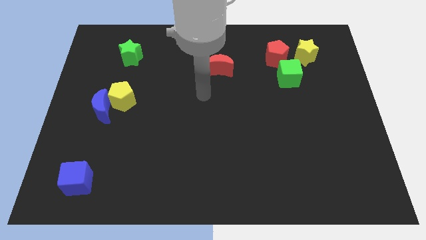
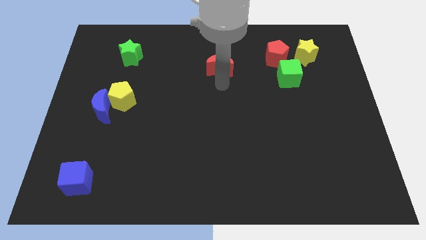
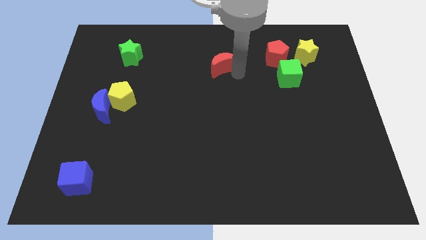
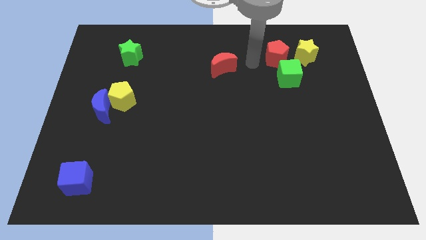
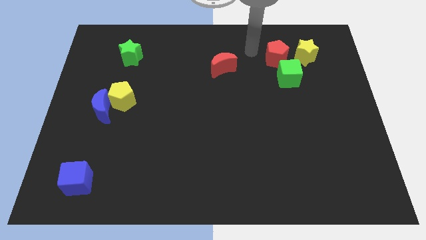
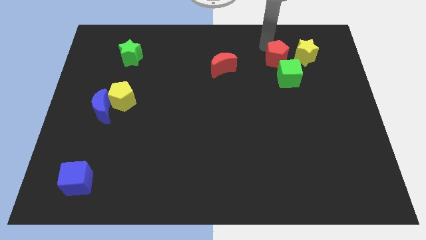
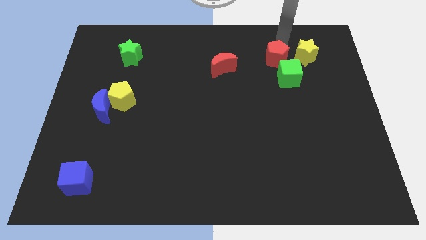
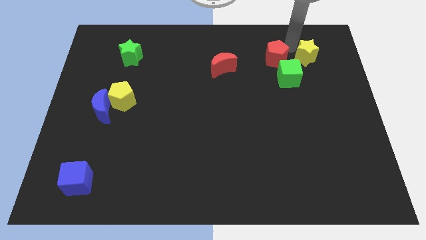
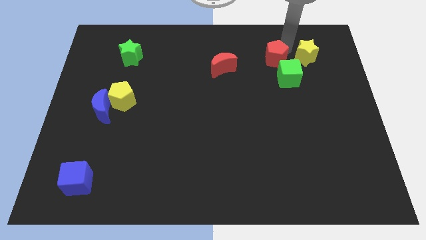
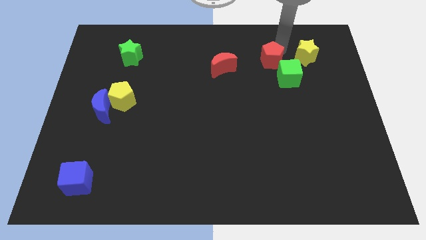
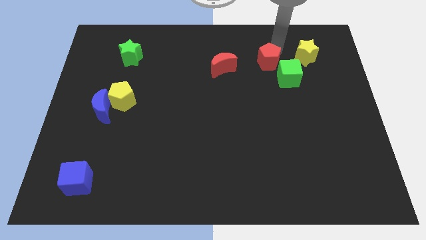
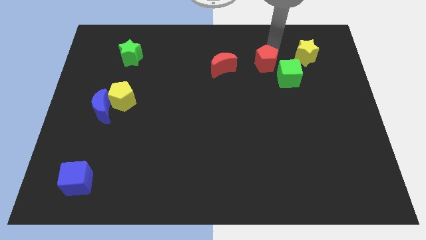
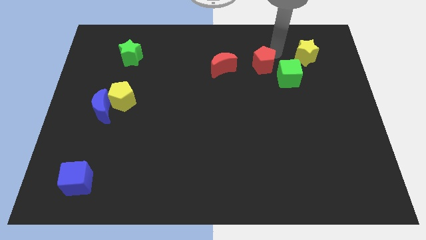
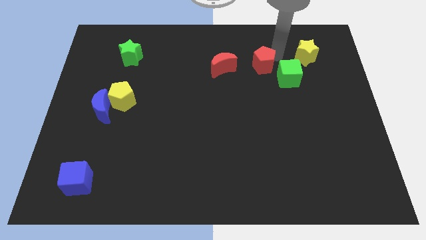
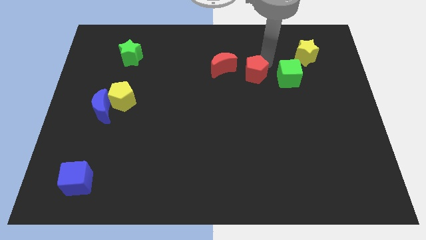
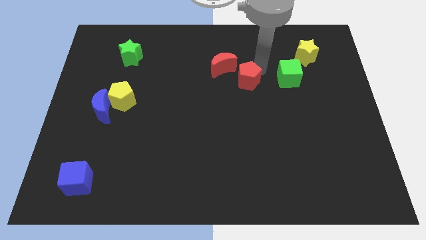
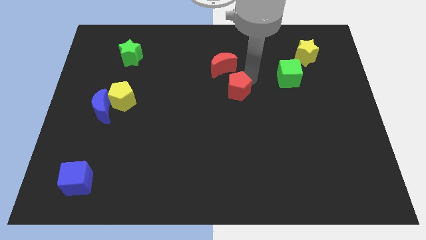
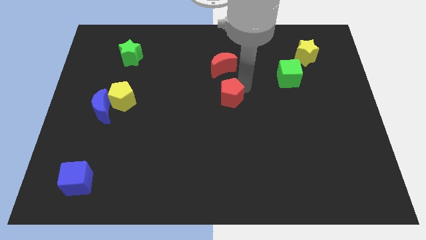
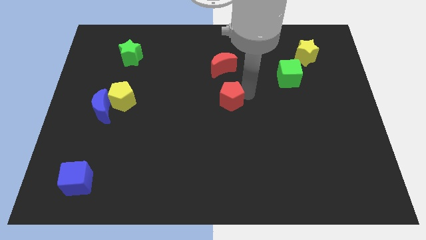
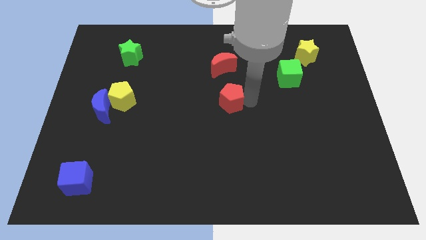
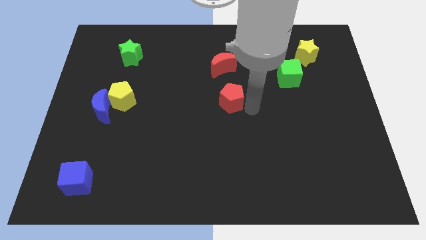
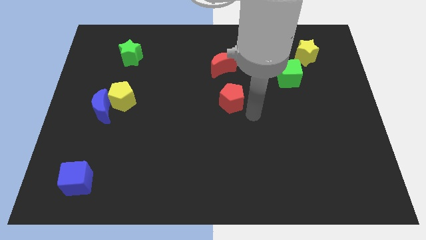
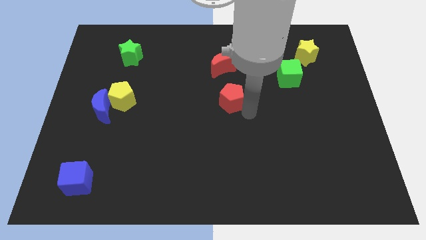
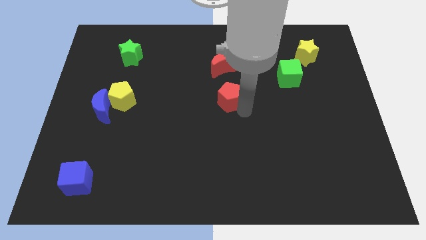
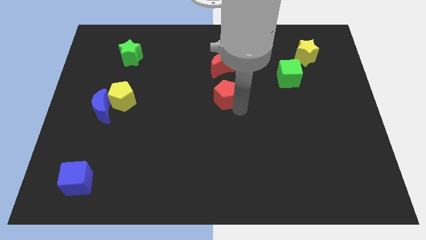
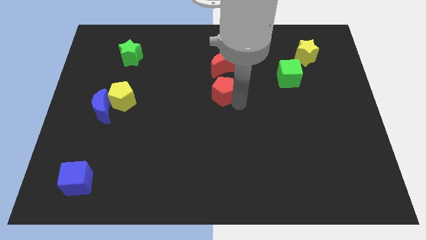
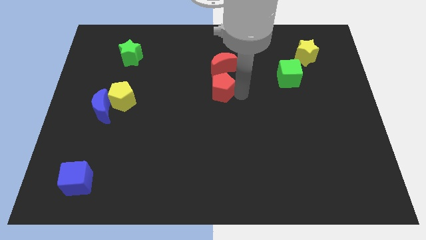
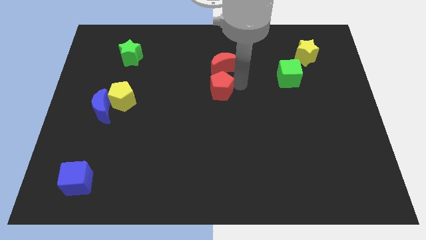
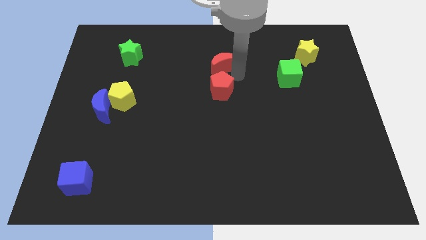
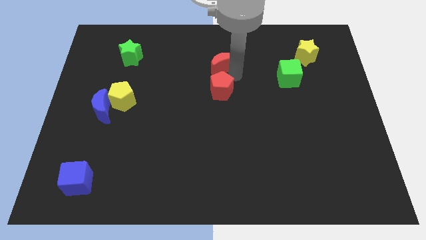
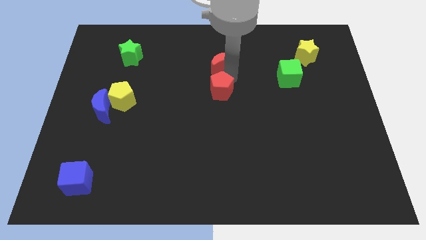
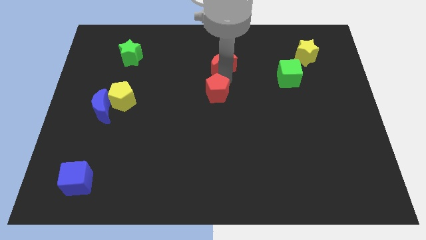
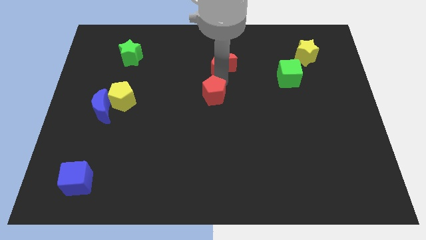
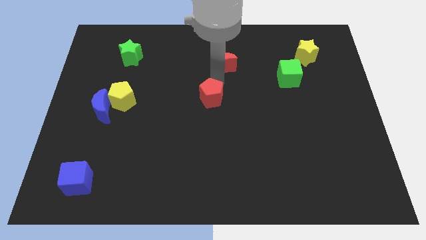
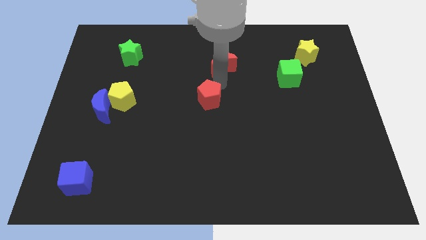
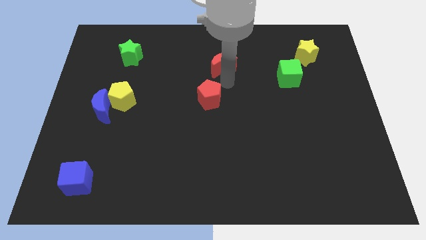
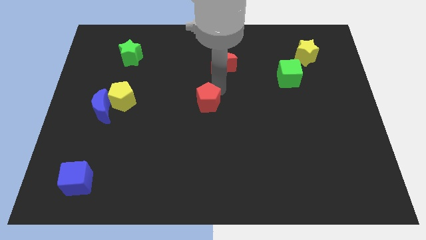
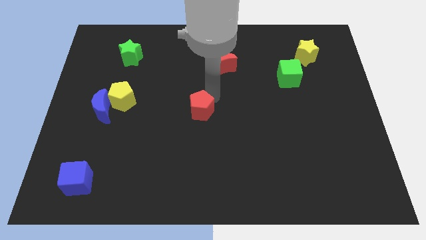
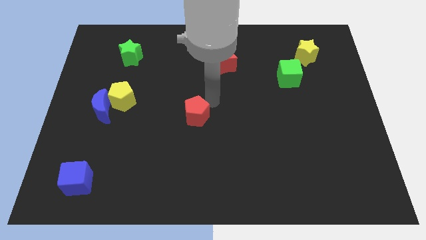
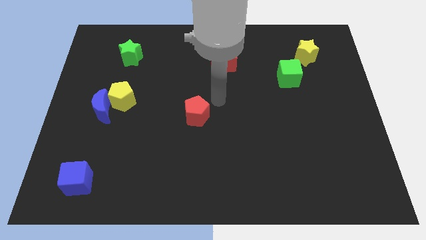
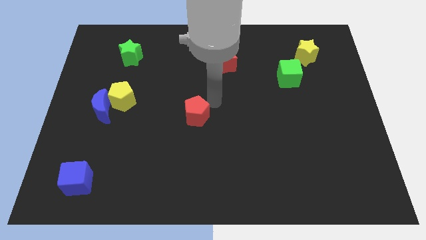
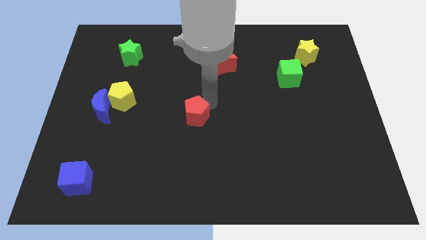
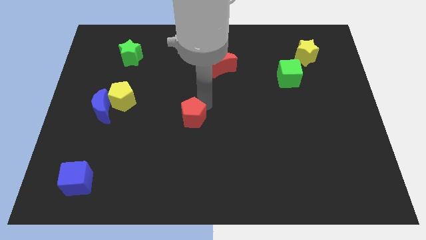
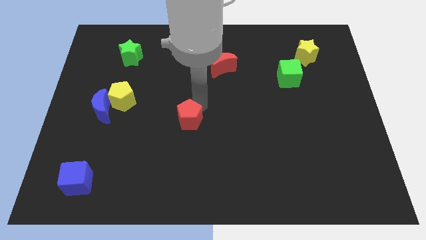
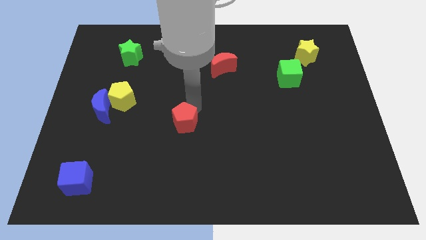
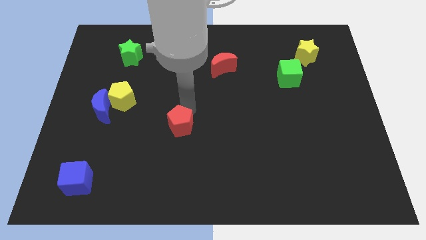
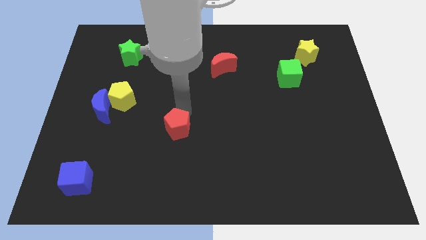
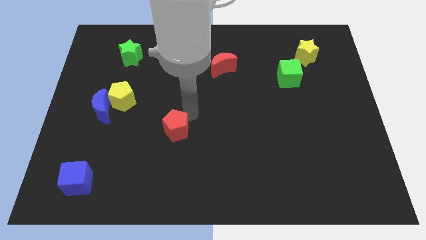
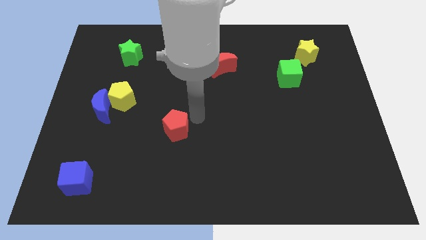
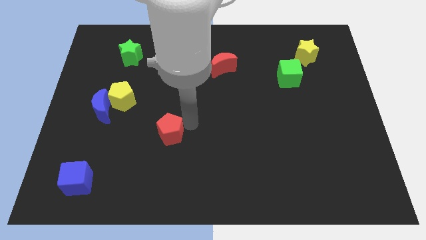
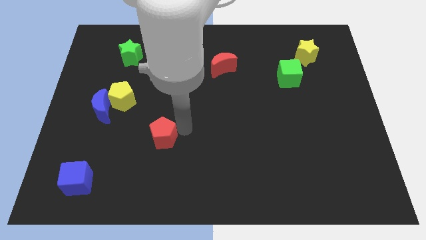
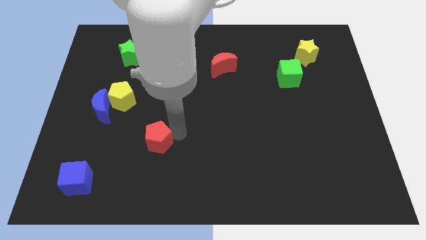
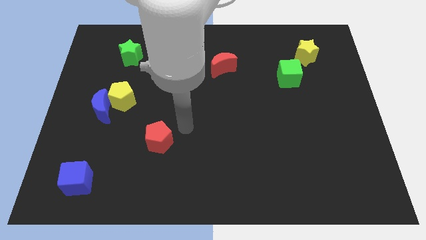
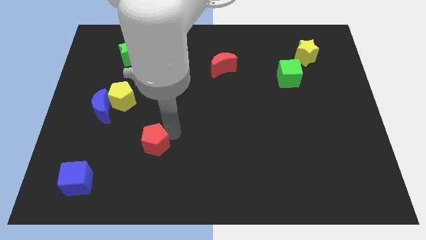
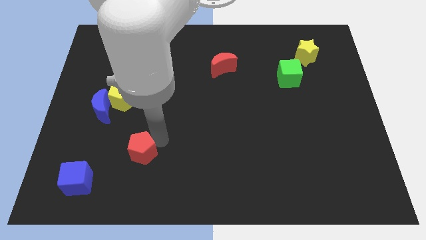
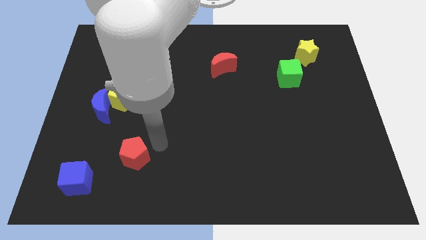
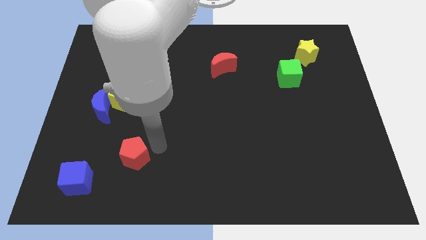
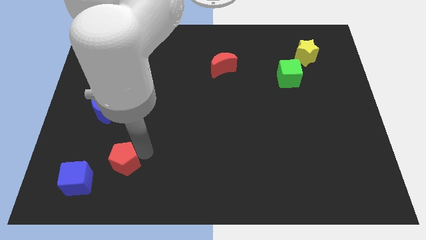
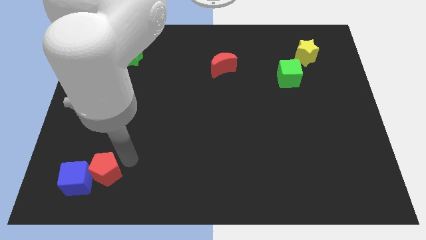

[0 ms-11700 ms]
move the red pentagon towards the blue cube
